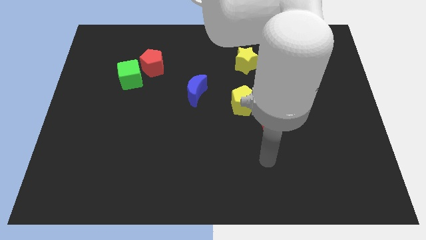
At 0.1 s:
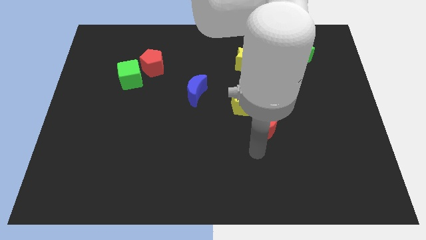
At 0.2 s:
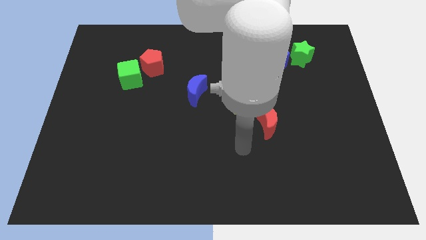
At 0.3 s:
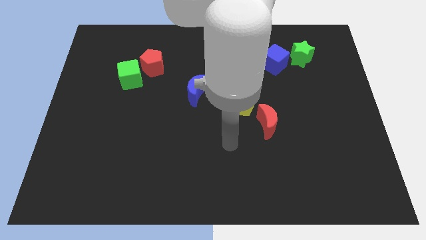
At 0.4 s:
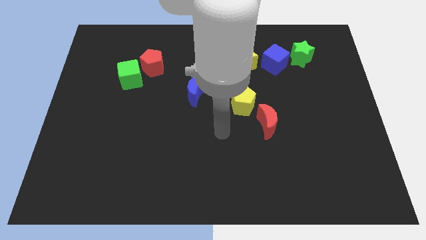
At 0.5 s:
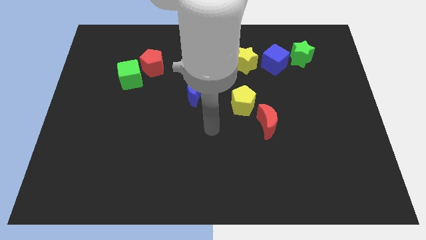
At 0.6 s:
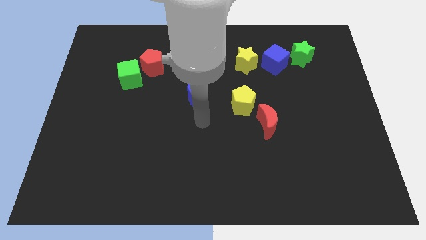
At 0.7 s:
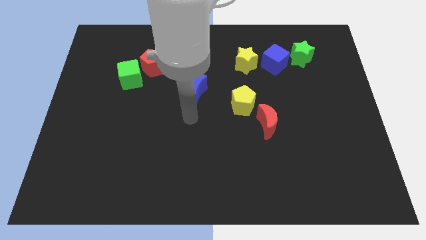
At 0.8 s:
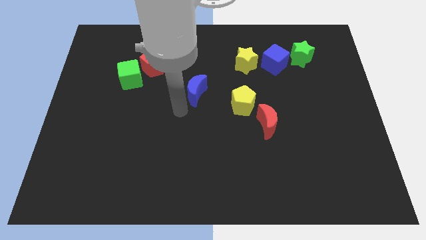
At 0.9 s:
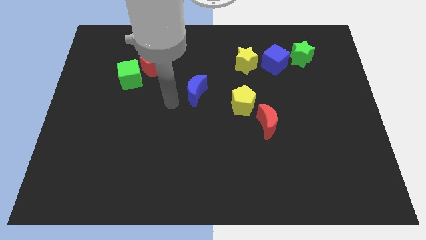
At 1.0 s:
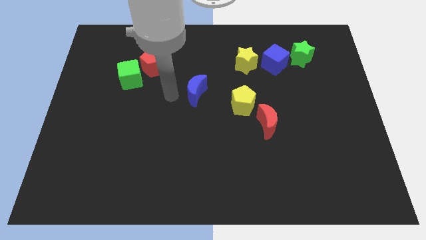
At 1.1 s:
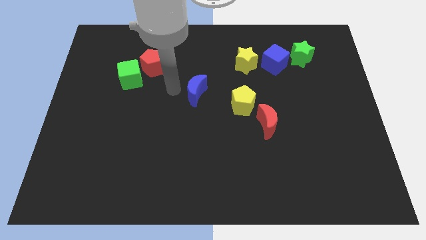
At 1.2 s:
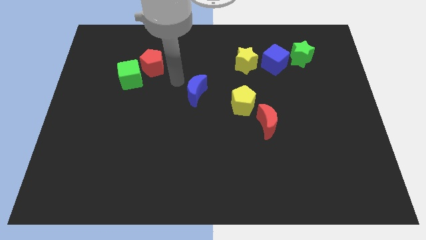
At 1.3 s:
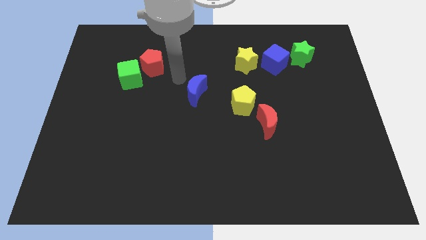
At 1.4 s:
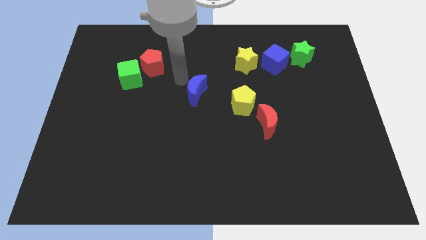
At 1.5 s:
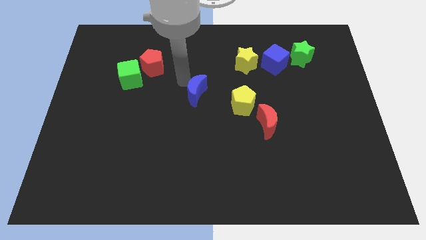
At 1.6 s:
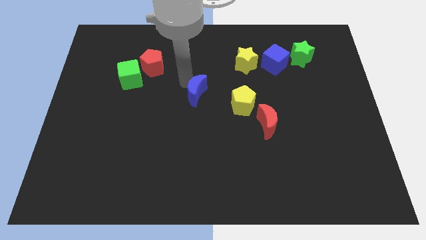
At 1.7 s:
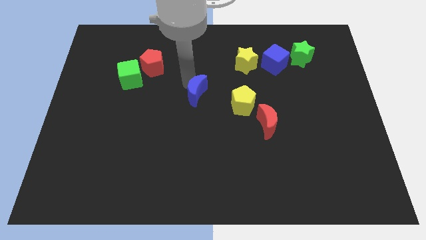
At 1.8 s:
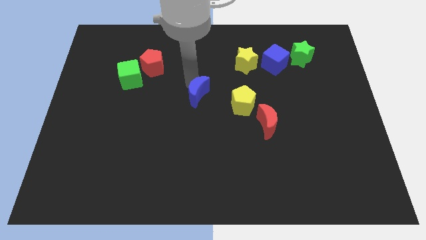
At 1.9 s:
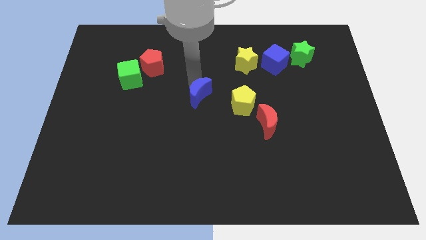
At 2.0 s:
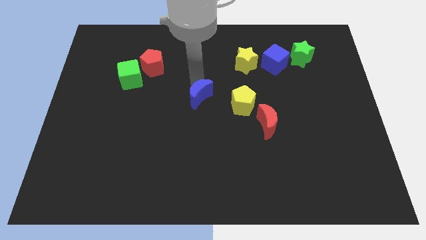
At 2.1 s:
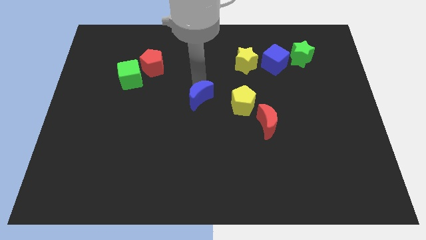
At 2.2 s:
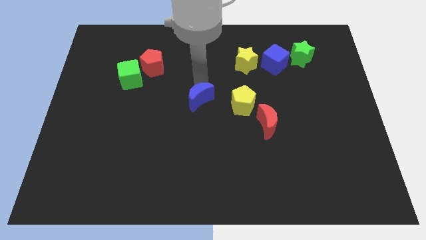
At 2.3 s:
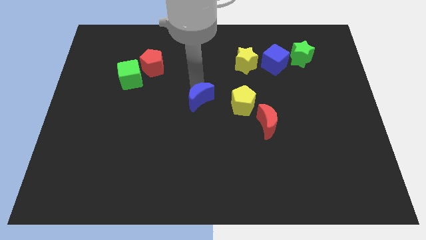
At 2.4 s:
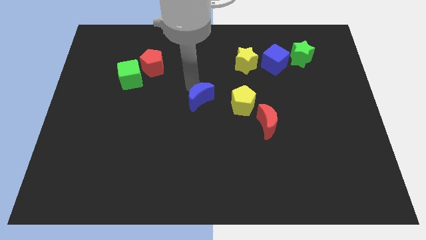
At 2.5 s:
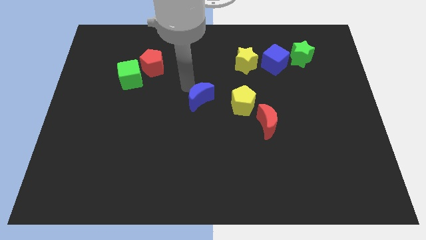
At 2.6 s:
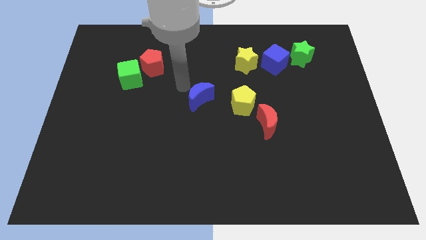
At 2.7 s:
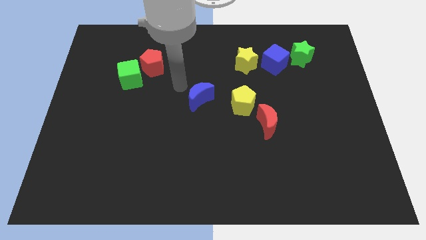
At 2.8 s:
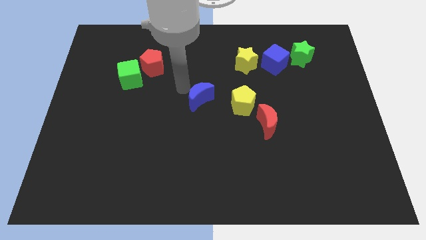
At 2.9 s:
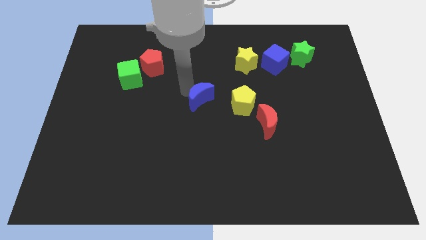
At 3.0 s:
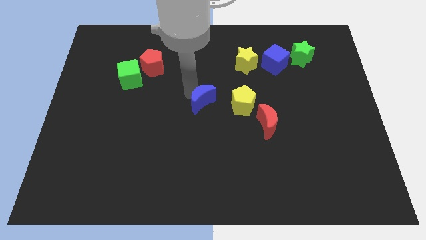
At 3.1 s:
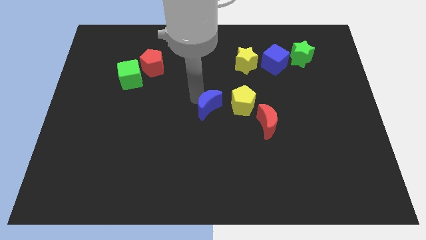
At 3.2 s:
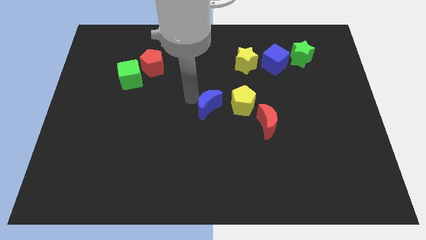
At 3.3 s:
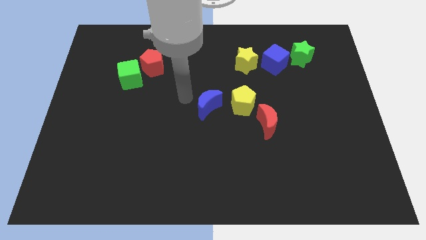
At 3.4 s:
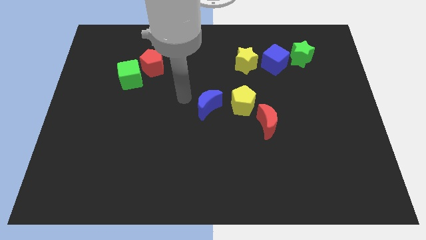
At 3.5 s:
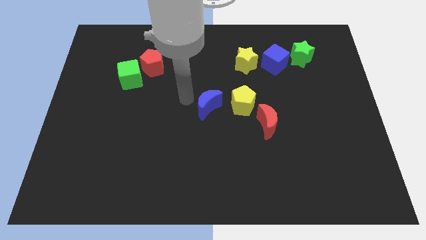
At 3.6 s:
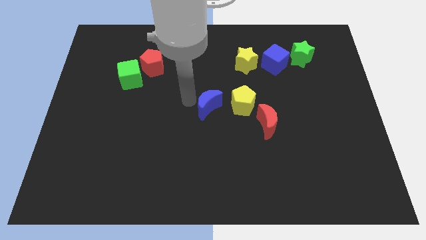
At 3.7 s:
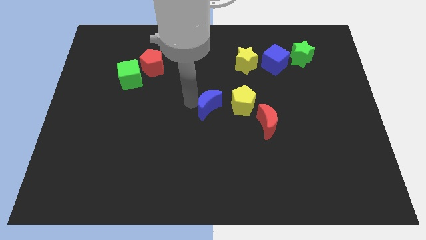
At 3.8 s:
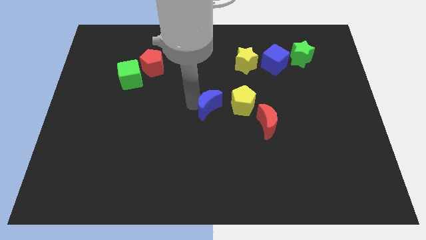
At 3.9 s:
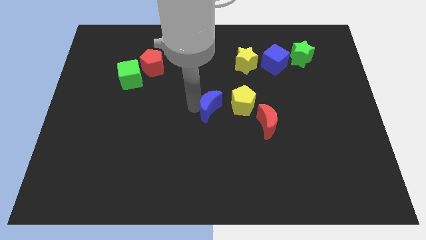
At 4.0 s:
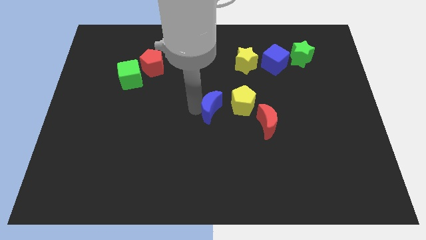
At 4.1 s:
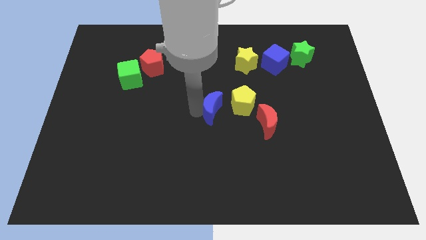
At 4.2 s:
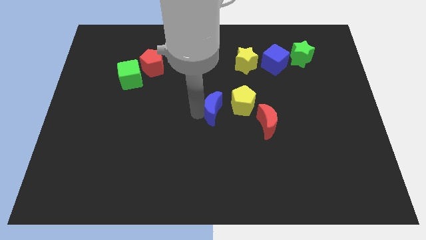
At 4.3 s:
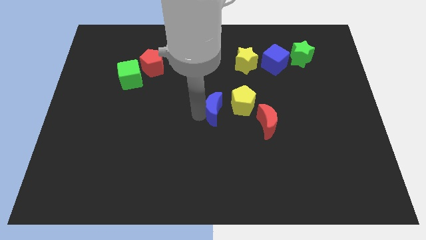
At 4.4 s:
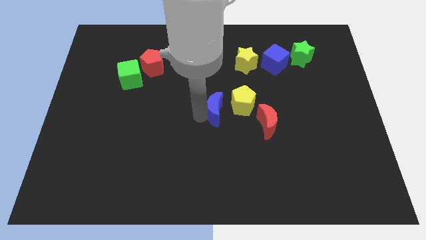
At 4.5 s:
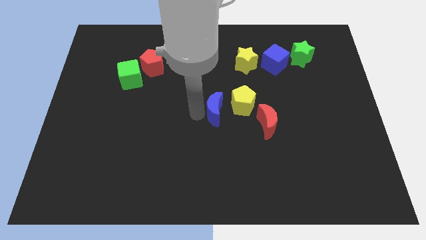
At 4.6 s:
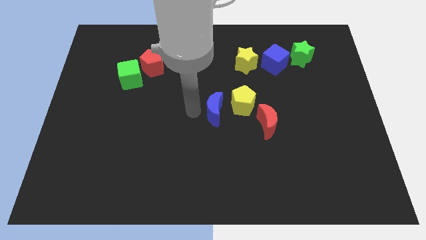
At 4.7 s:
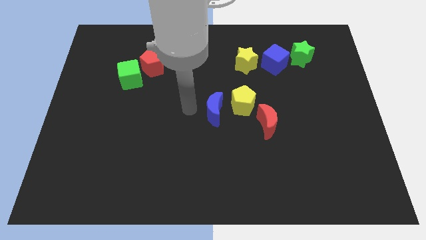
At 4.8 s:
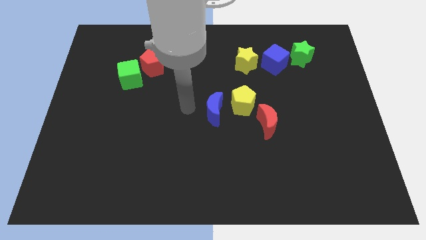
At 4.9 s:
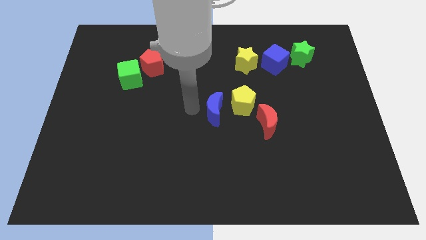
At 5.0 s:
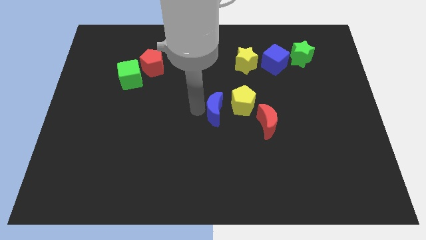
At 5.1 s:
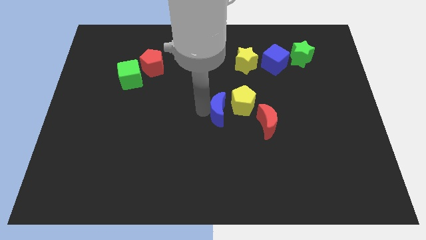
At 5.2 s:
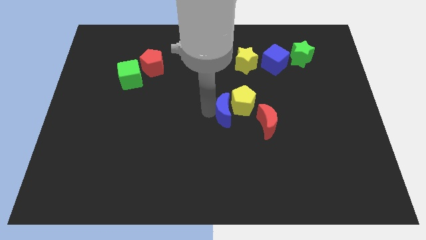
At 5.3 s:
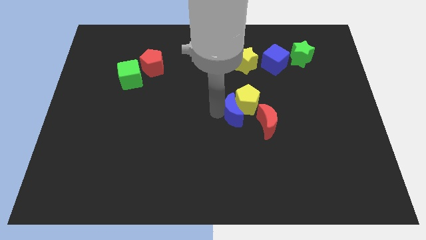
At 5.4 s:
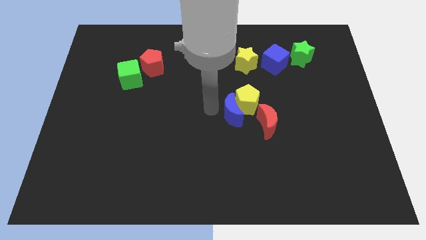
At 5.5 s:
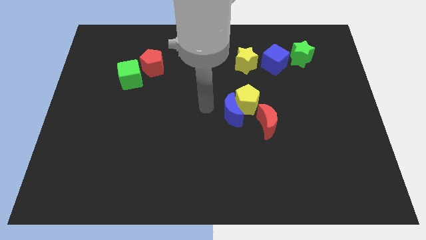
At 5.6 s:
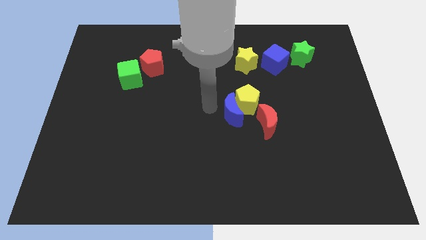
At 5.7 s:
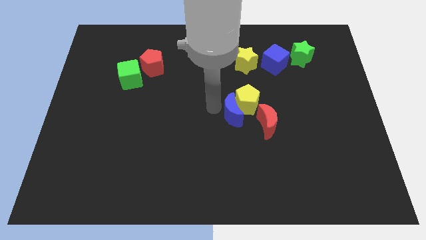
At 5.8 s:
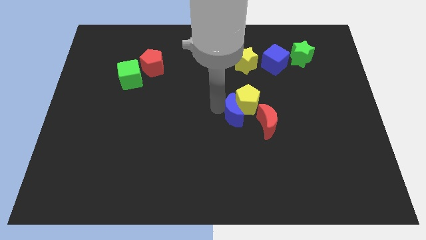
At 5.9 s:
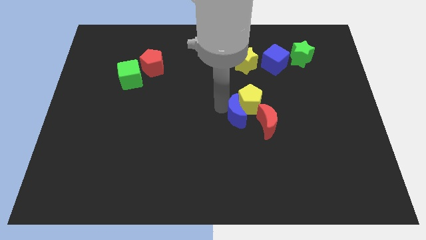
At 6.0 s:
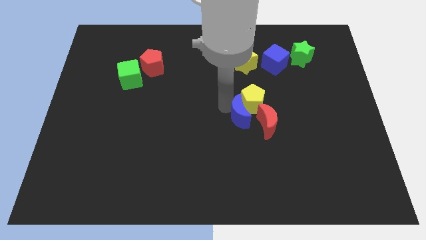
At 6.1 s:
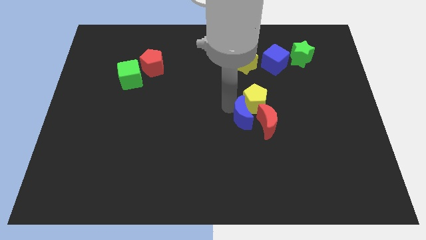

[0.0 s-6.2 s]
push the blue moon towards the red moon

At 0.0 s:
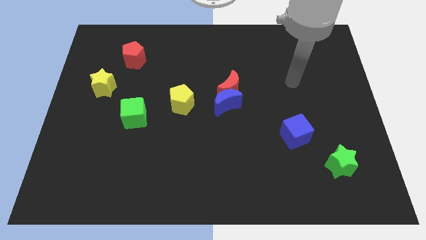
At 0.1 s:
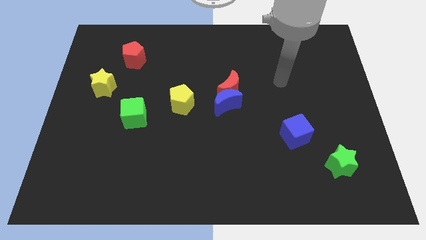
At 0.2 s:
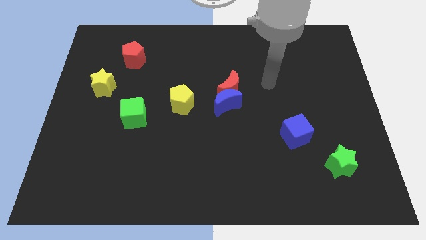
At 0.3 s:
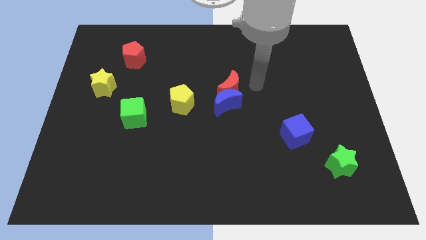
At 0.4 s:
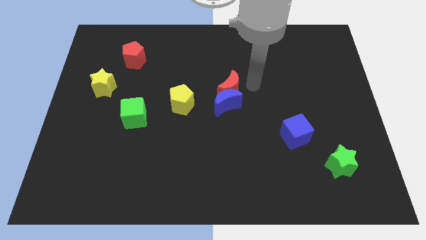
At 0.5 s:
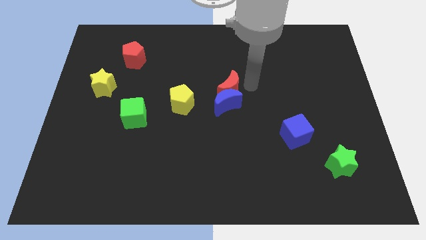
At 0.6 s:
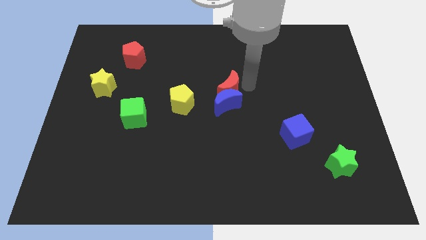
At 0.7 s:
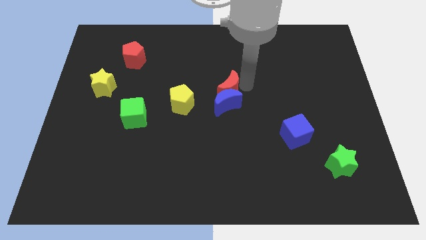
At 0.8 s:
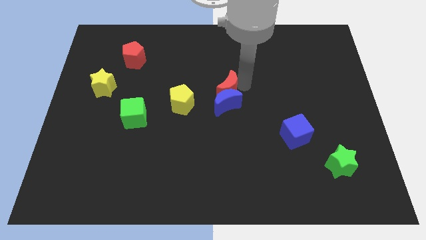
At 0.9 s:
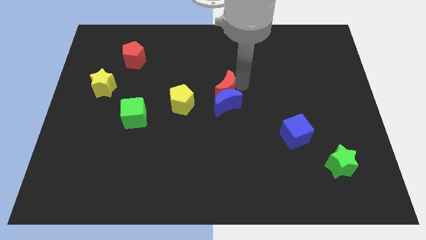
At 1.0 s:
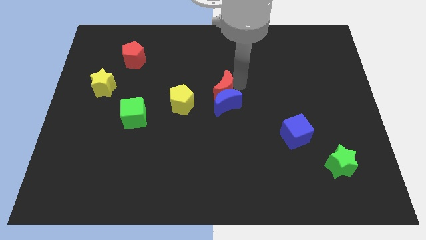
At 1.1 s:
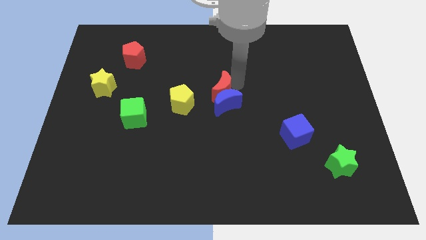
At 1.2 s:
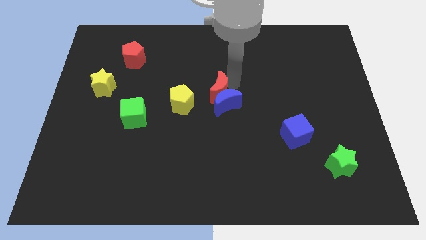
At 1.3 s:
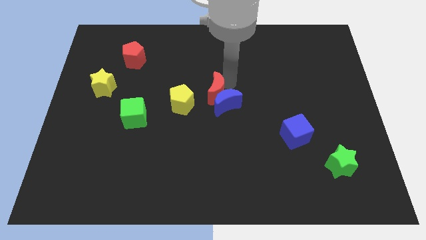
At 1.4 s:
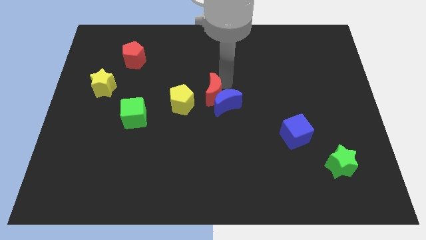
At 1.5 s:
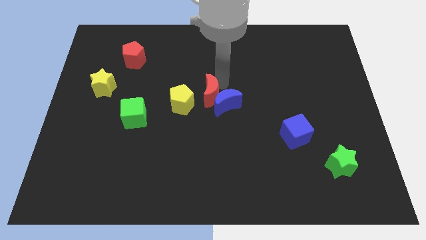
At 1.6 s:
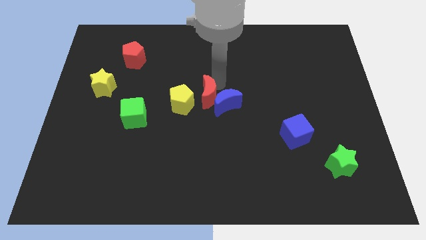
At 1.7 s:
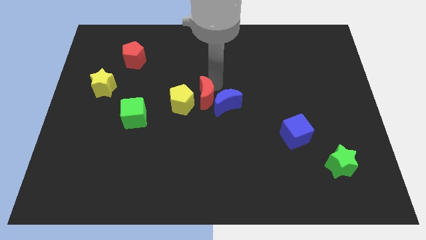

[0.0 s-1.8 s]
push the red moon to the yellow pentagon
